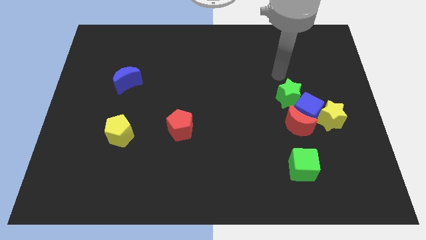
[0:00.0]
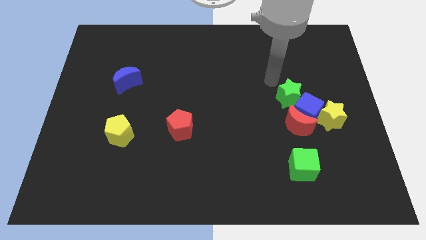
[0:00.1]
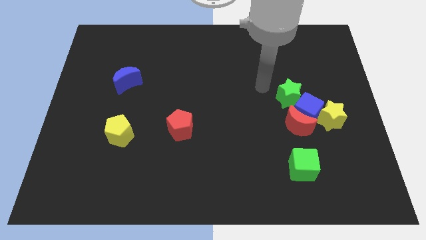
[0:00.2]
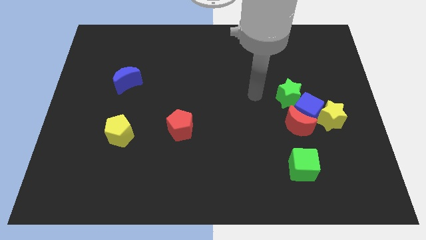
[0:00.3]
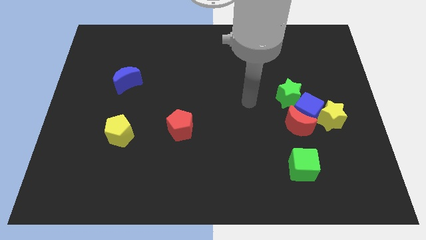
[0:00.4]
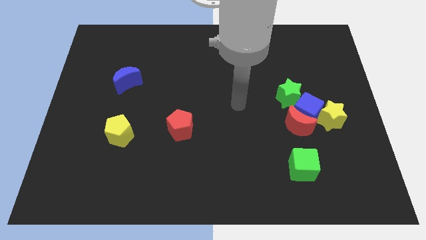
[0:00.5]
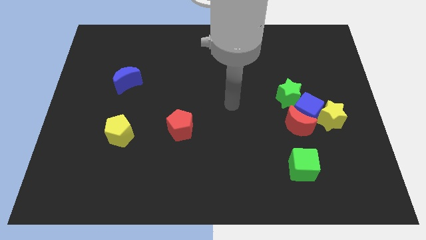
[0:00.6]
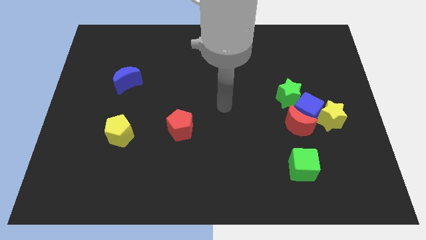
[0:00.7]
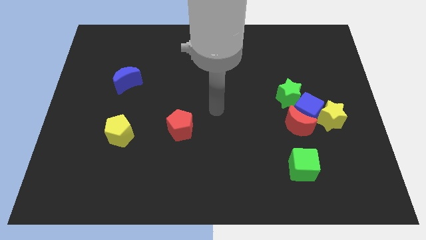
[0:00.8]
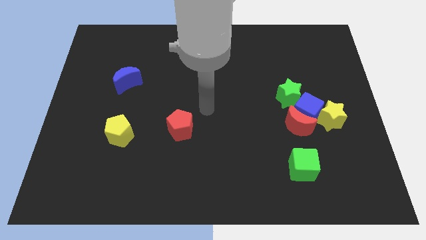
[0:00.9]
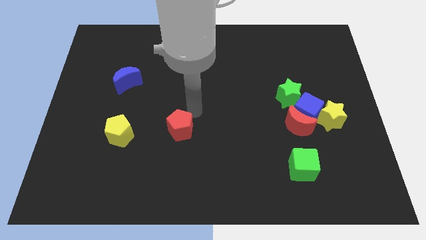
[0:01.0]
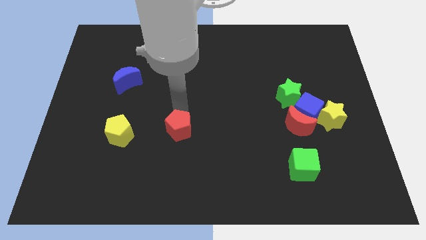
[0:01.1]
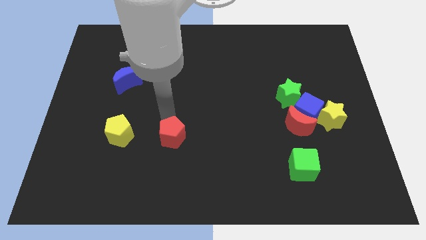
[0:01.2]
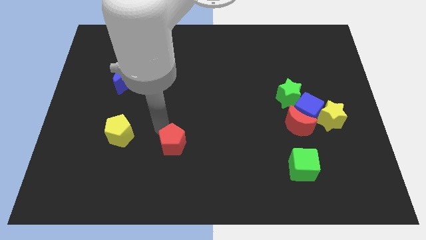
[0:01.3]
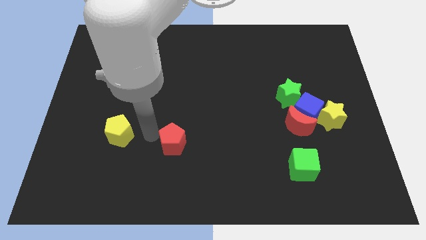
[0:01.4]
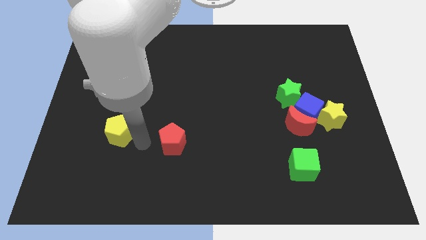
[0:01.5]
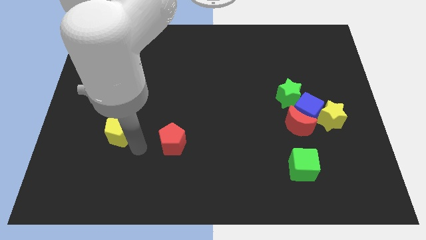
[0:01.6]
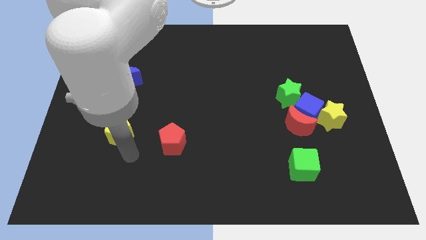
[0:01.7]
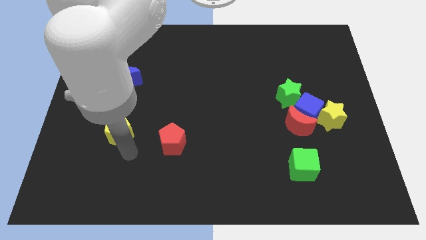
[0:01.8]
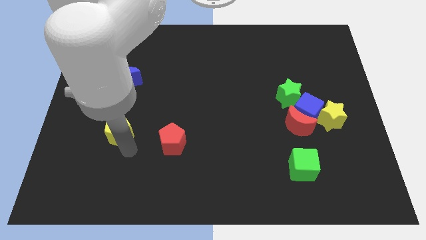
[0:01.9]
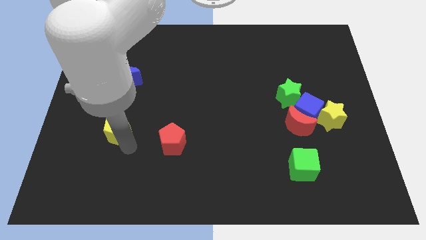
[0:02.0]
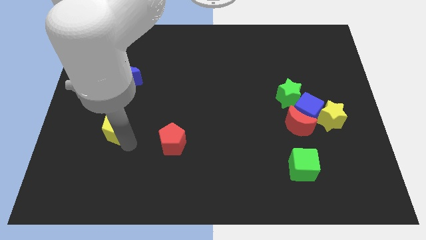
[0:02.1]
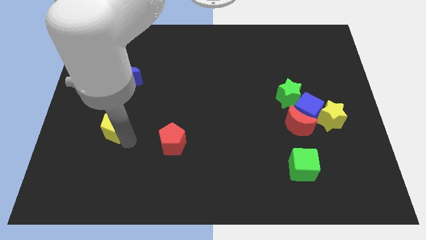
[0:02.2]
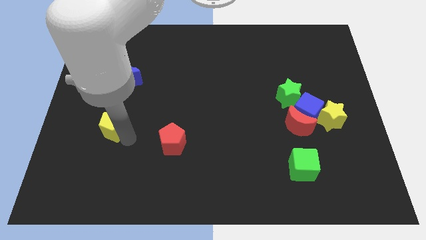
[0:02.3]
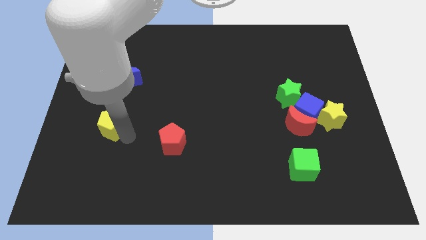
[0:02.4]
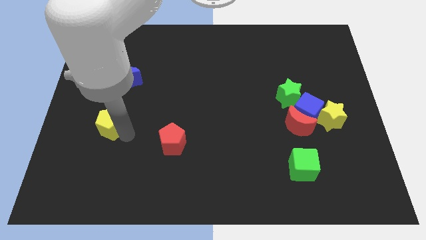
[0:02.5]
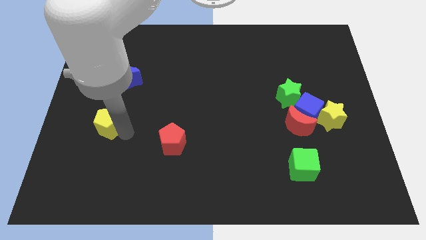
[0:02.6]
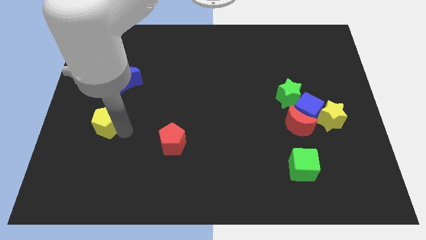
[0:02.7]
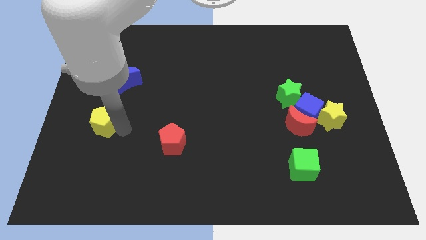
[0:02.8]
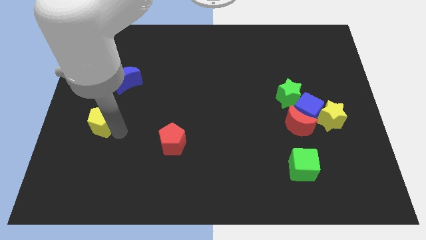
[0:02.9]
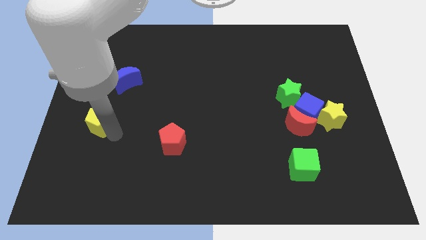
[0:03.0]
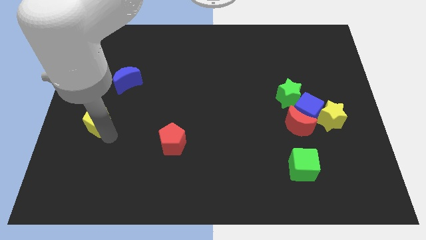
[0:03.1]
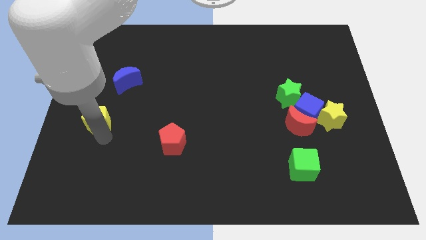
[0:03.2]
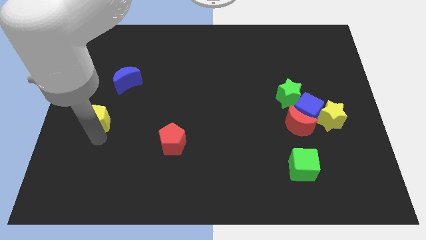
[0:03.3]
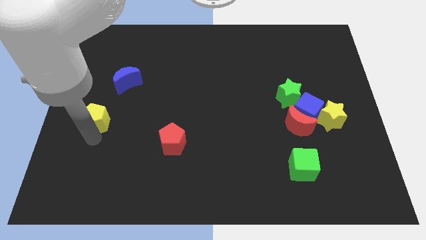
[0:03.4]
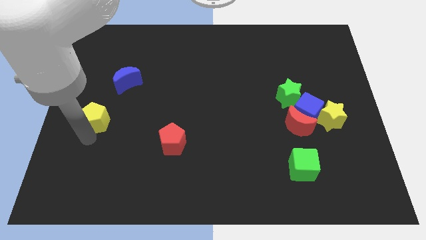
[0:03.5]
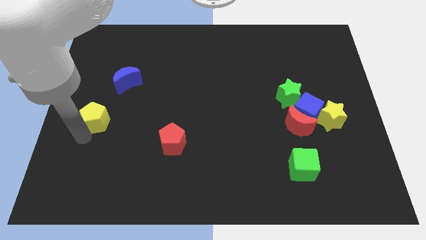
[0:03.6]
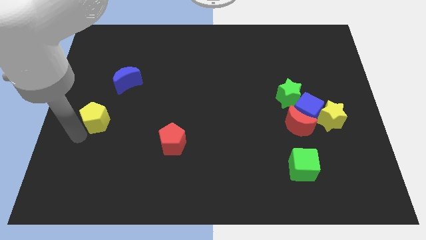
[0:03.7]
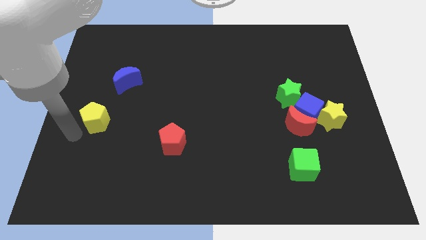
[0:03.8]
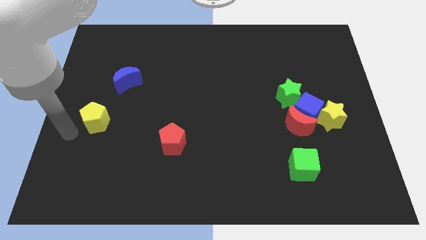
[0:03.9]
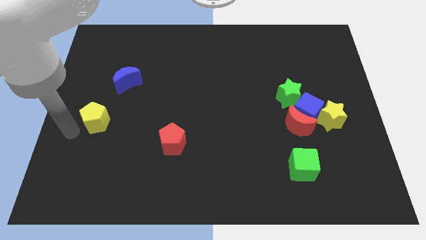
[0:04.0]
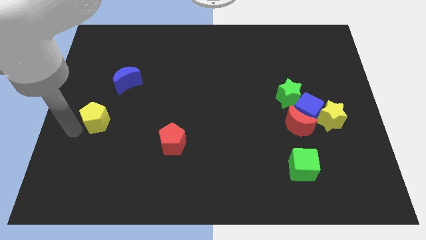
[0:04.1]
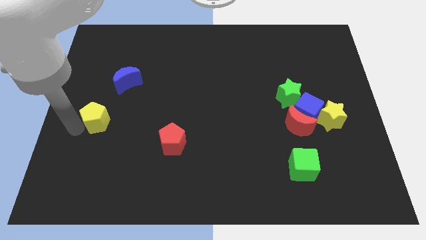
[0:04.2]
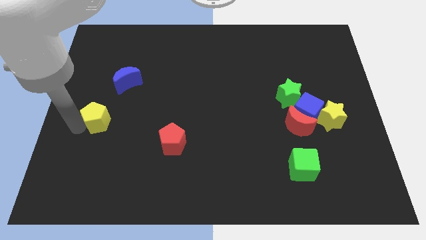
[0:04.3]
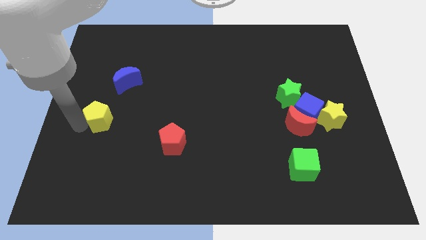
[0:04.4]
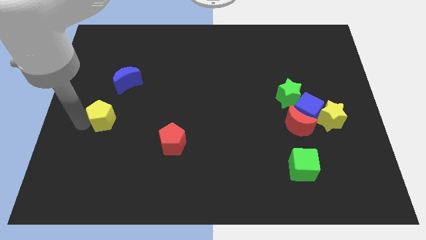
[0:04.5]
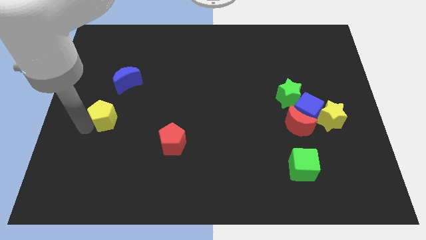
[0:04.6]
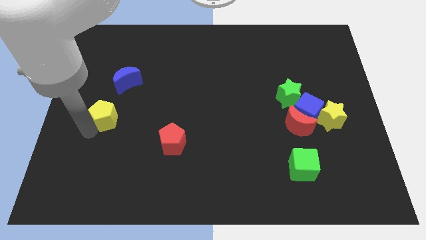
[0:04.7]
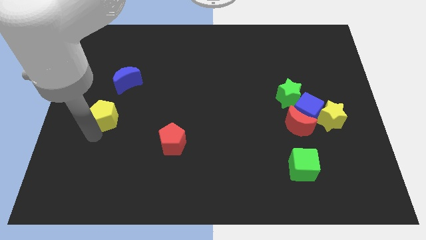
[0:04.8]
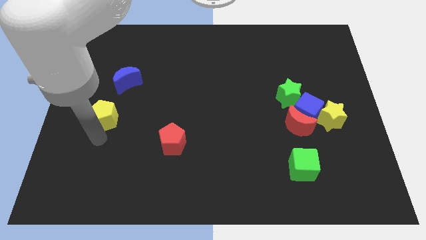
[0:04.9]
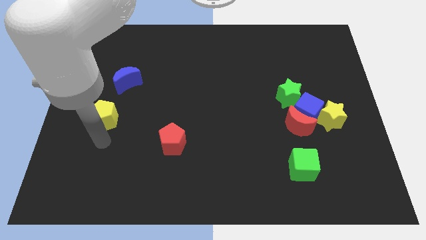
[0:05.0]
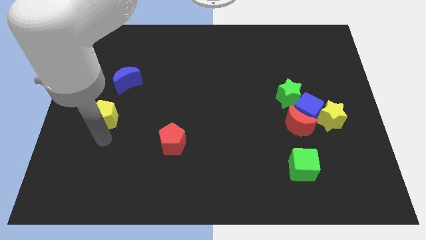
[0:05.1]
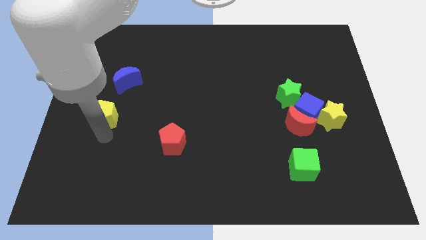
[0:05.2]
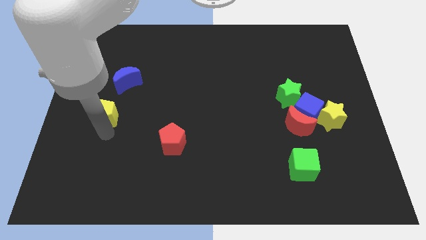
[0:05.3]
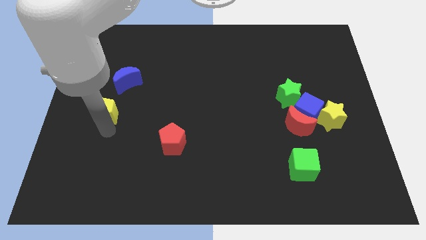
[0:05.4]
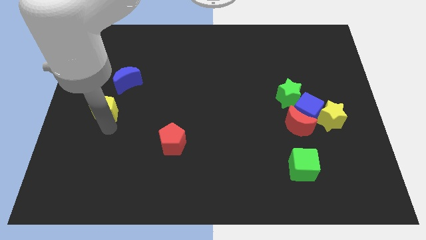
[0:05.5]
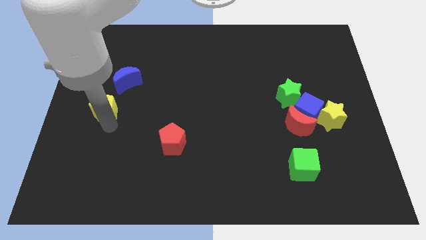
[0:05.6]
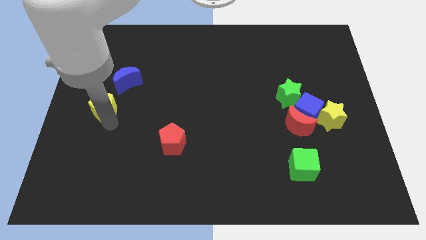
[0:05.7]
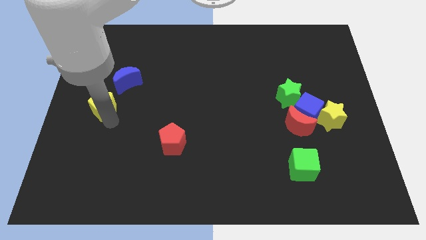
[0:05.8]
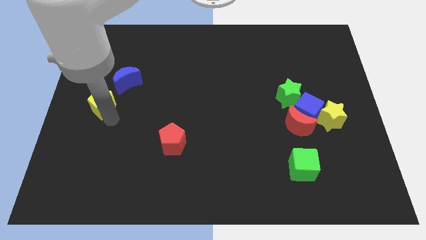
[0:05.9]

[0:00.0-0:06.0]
slide the yellow pentagon upwards somewhat

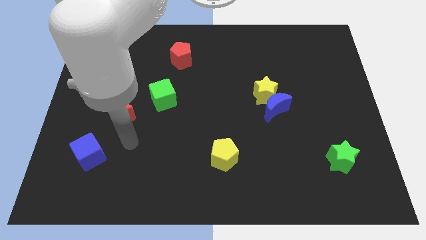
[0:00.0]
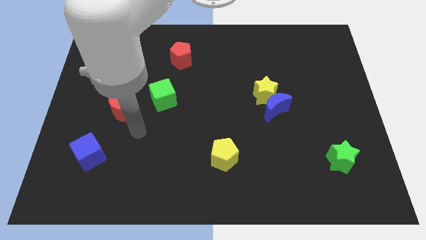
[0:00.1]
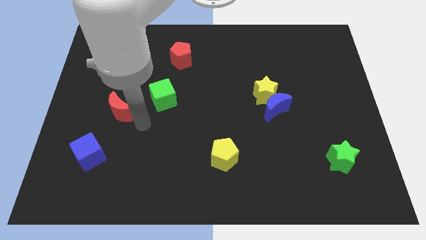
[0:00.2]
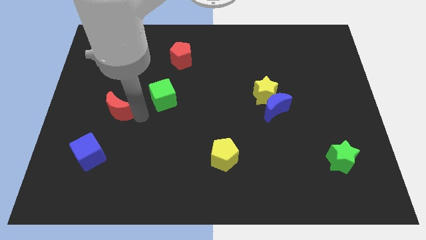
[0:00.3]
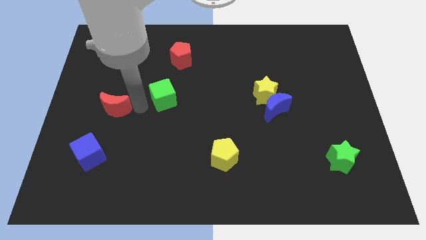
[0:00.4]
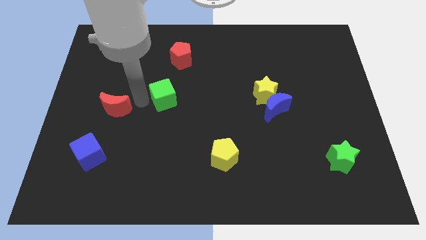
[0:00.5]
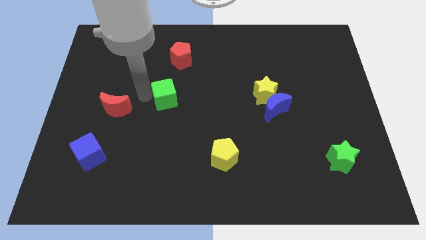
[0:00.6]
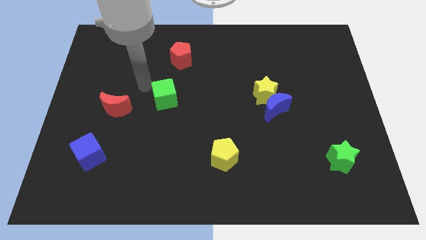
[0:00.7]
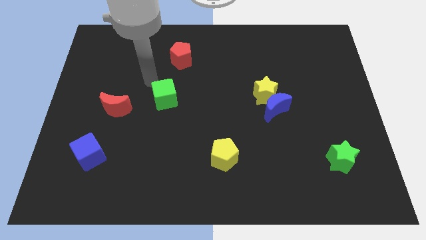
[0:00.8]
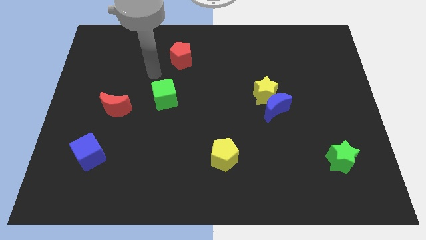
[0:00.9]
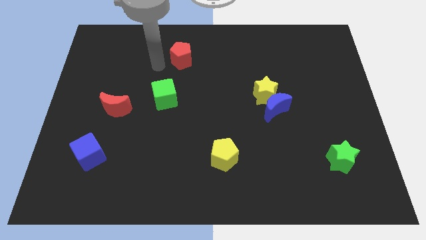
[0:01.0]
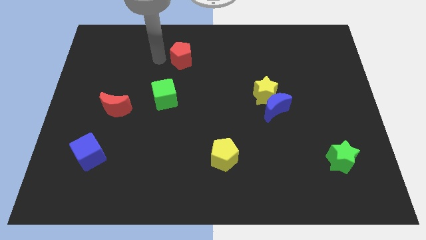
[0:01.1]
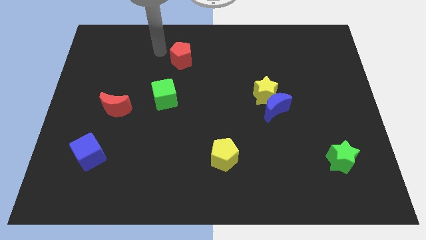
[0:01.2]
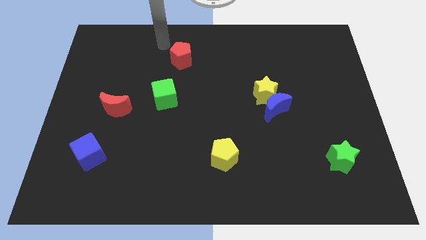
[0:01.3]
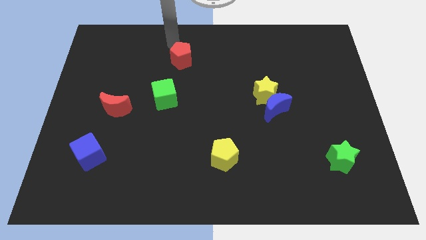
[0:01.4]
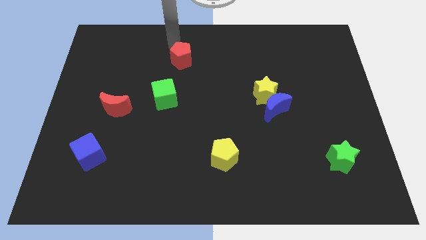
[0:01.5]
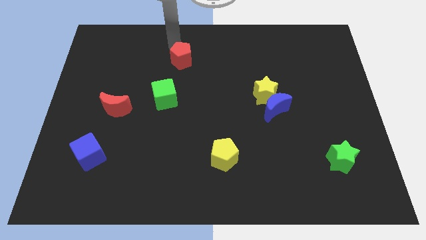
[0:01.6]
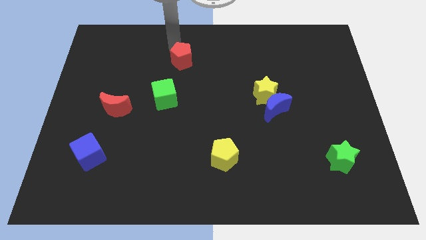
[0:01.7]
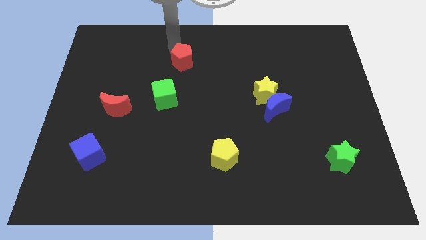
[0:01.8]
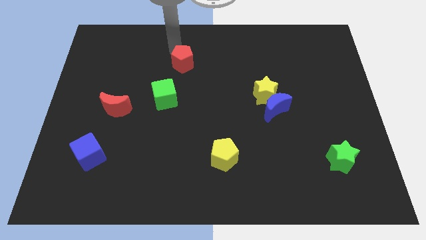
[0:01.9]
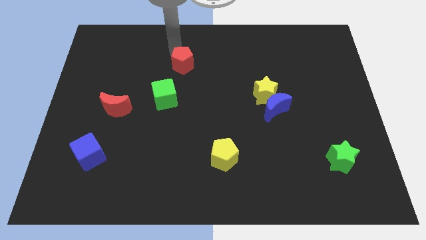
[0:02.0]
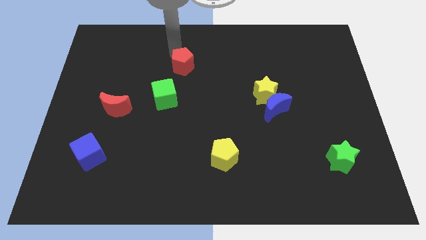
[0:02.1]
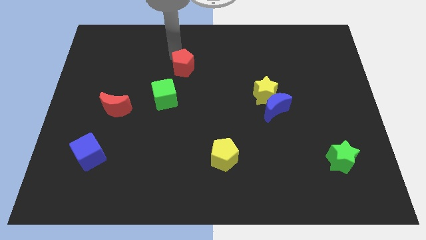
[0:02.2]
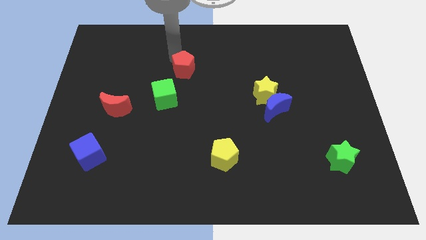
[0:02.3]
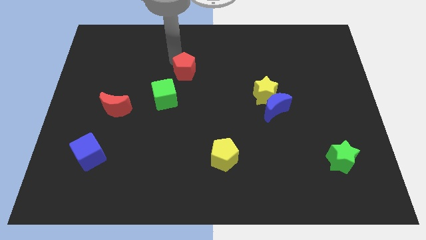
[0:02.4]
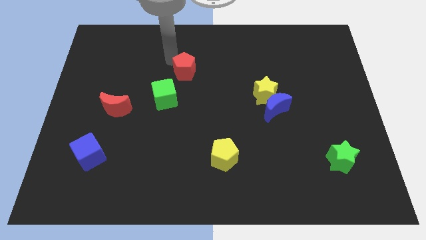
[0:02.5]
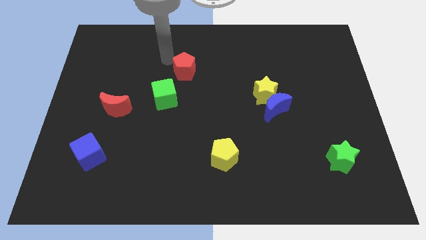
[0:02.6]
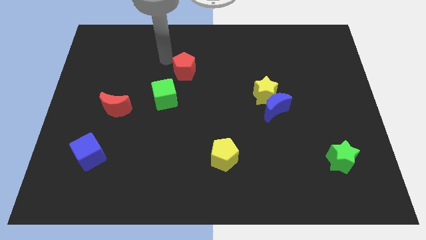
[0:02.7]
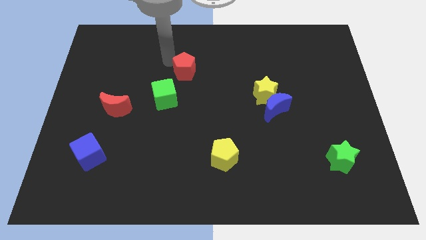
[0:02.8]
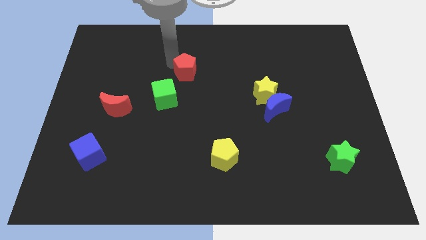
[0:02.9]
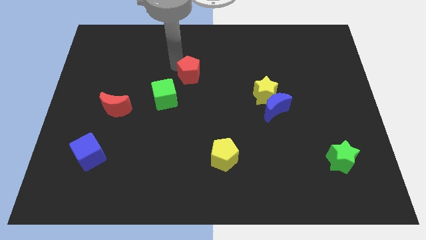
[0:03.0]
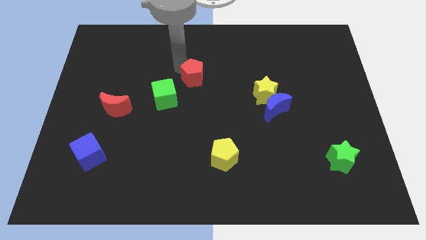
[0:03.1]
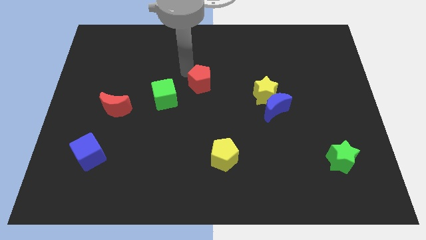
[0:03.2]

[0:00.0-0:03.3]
slightly slide the red pentagon diagonally down and to the right
